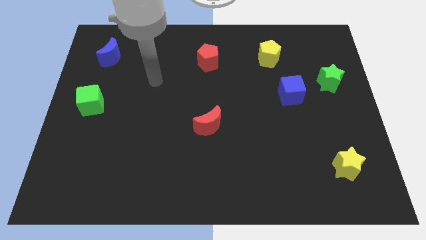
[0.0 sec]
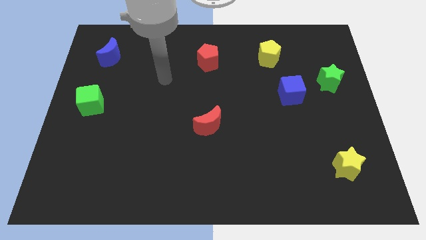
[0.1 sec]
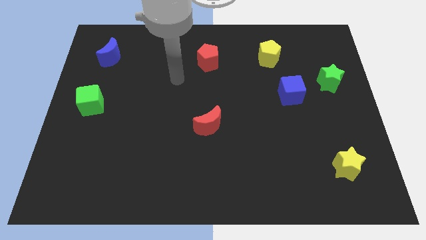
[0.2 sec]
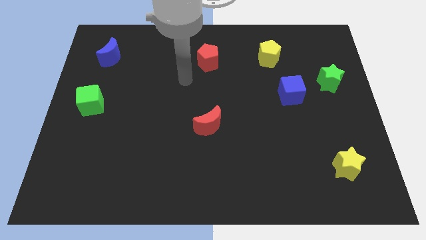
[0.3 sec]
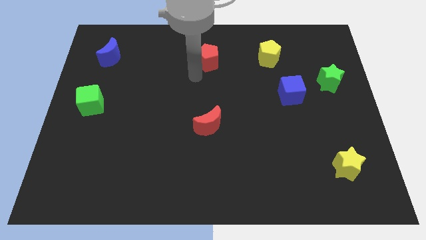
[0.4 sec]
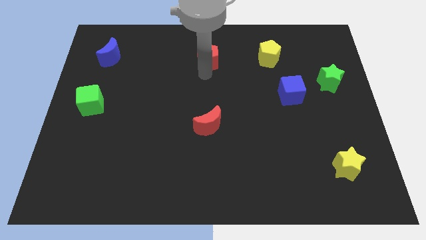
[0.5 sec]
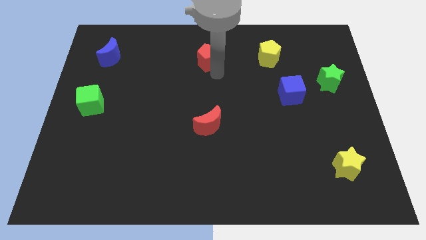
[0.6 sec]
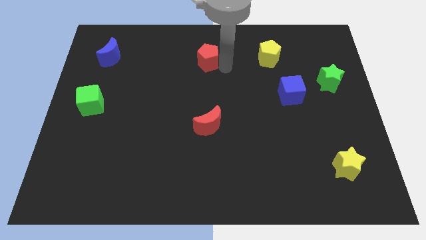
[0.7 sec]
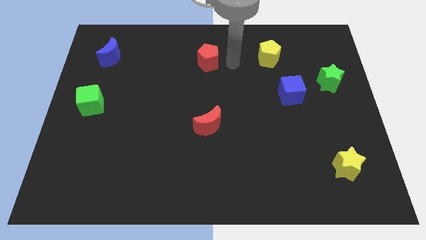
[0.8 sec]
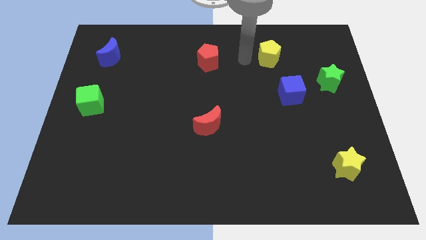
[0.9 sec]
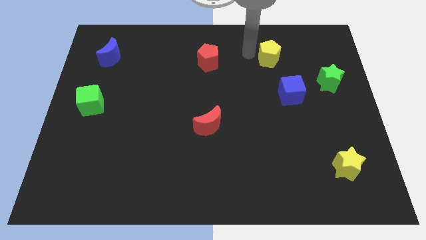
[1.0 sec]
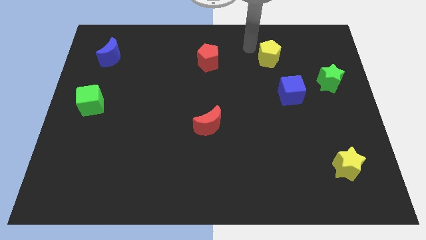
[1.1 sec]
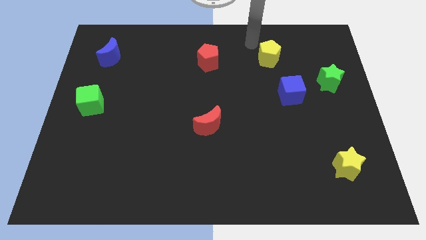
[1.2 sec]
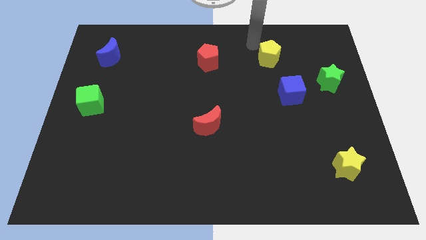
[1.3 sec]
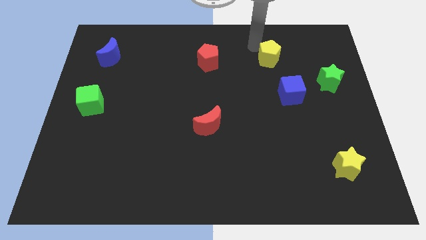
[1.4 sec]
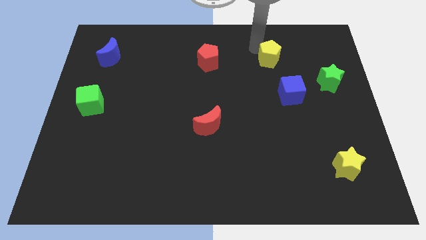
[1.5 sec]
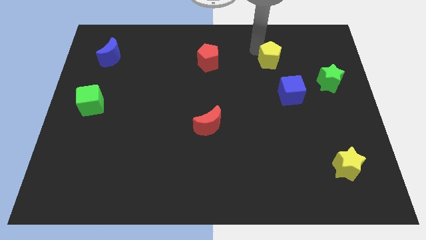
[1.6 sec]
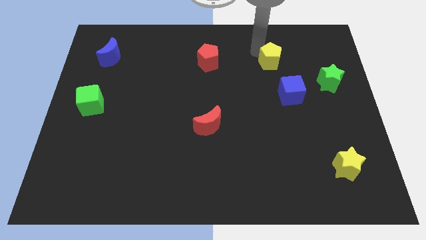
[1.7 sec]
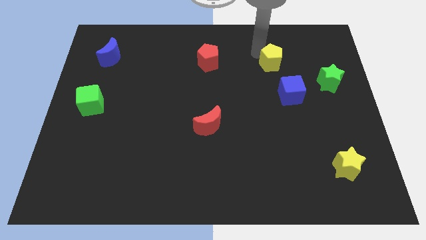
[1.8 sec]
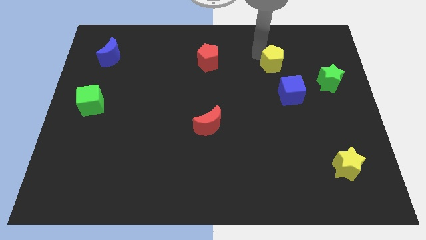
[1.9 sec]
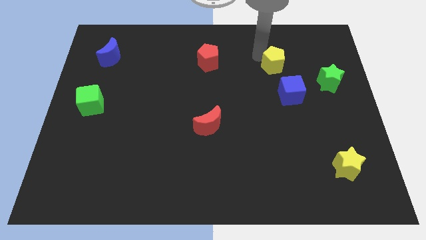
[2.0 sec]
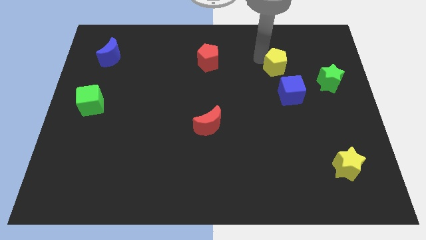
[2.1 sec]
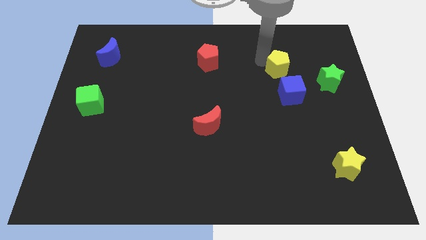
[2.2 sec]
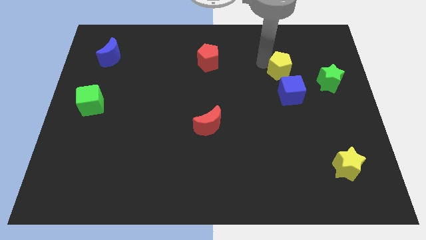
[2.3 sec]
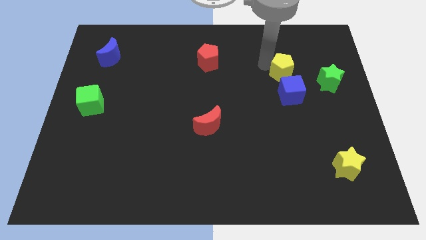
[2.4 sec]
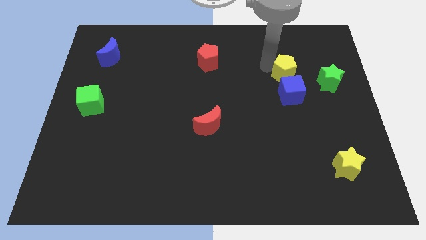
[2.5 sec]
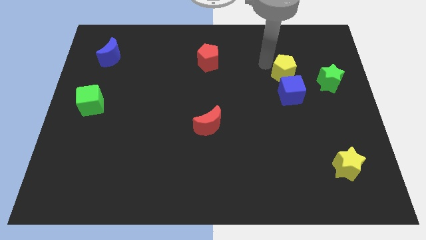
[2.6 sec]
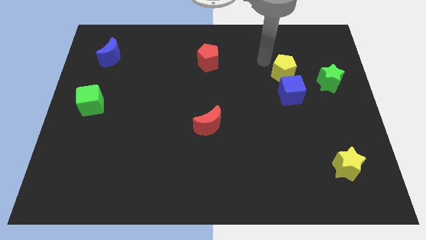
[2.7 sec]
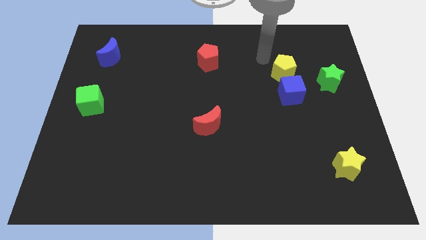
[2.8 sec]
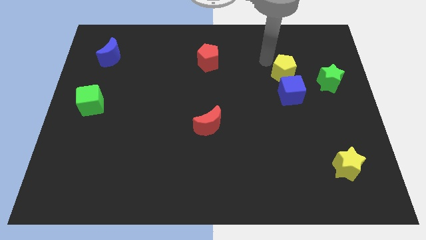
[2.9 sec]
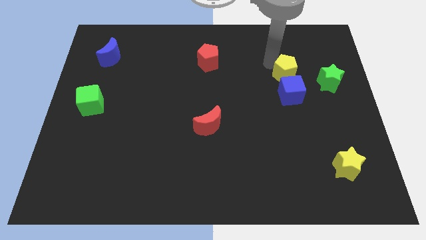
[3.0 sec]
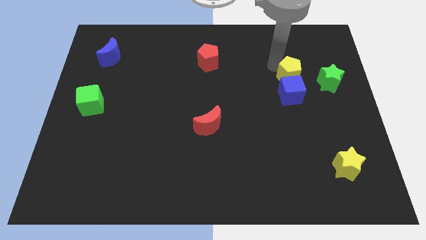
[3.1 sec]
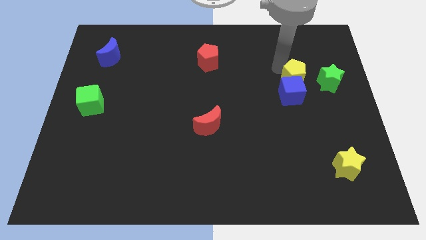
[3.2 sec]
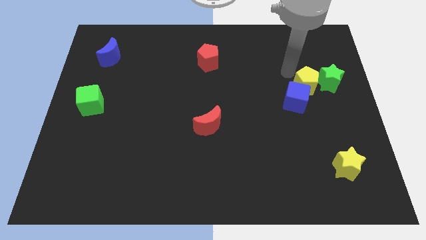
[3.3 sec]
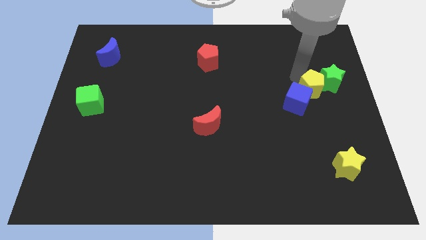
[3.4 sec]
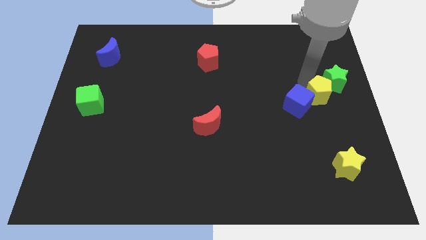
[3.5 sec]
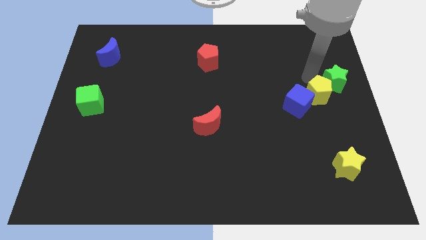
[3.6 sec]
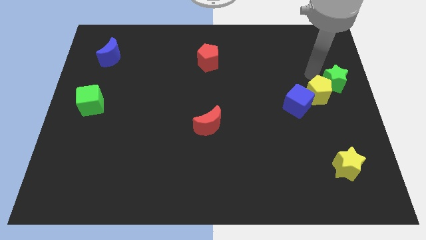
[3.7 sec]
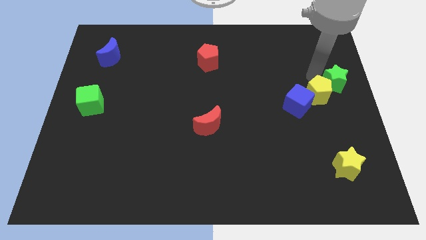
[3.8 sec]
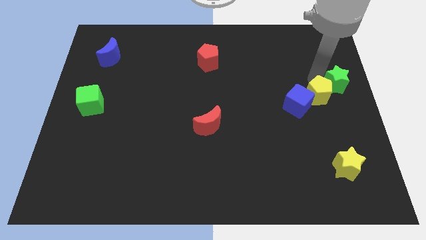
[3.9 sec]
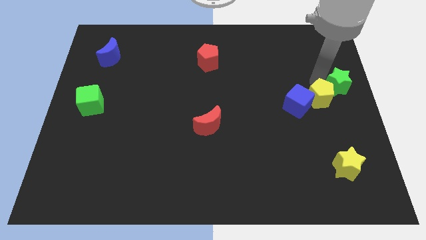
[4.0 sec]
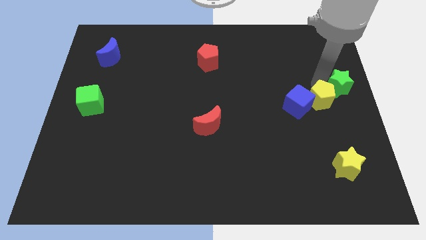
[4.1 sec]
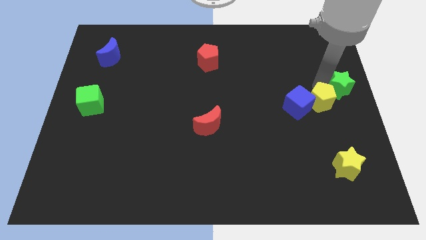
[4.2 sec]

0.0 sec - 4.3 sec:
slide the yellow pentagon to the bottom right of the blue cube

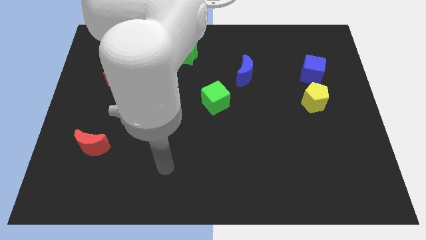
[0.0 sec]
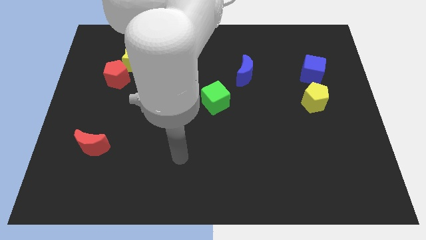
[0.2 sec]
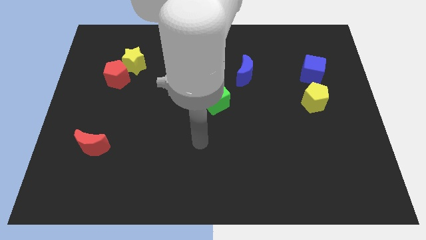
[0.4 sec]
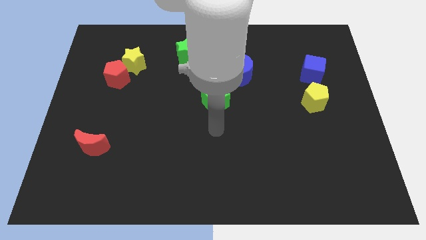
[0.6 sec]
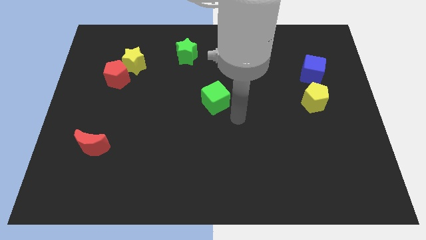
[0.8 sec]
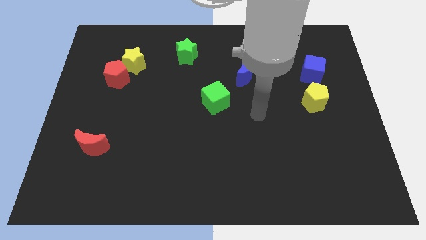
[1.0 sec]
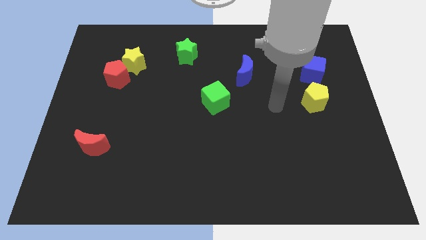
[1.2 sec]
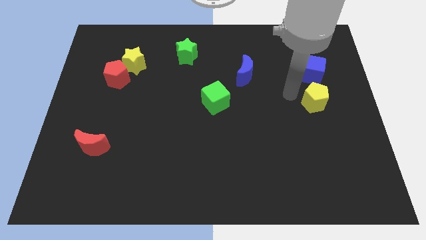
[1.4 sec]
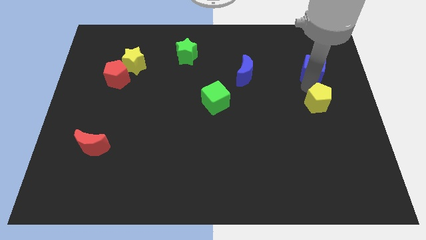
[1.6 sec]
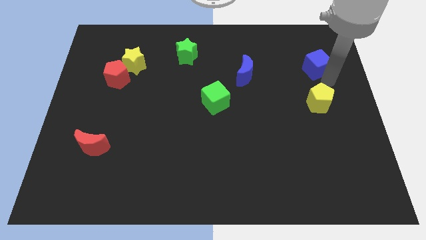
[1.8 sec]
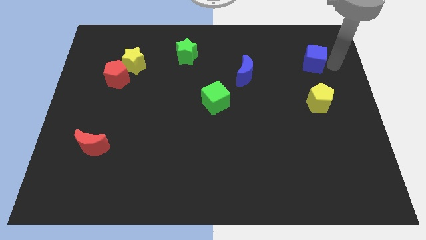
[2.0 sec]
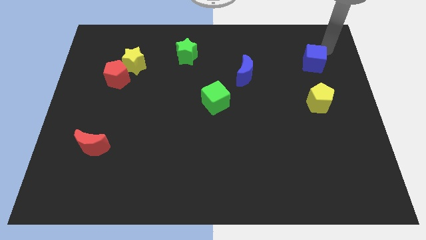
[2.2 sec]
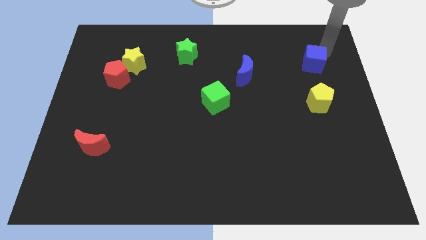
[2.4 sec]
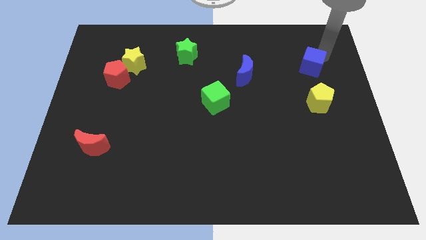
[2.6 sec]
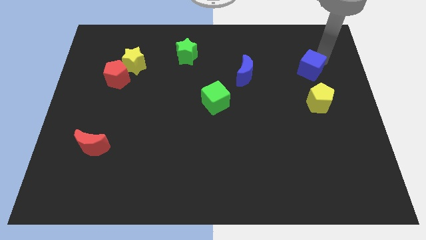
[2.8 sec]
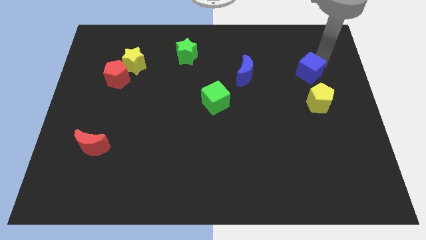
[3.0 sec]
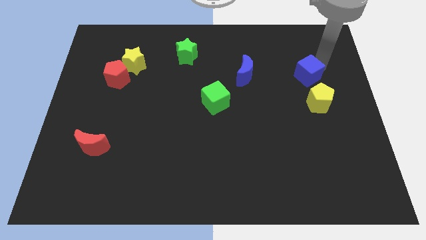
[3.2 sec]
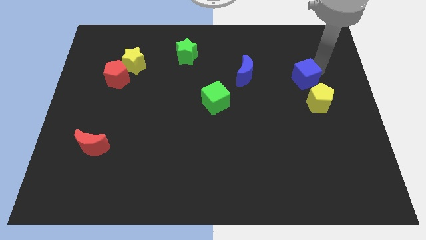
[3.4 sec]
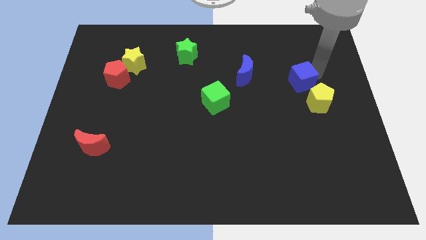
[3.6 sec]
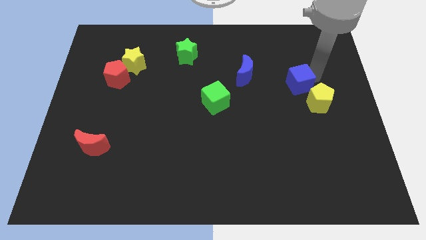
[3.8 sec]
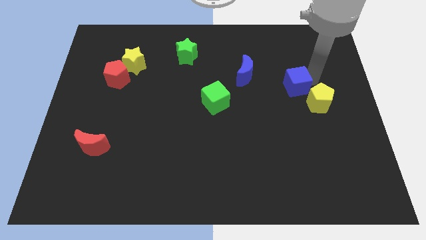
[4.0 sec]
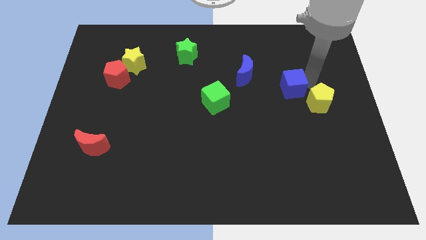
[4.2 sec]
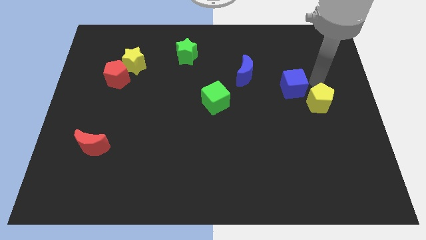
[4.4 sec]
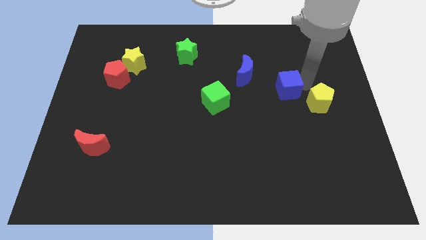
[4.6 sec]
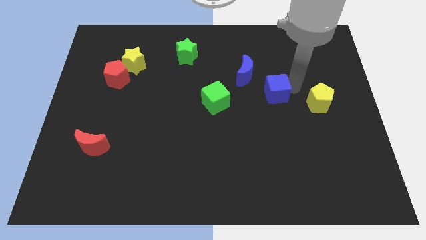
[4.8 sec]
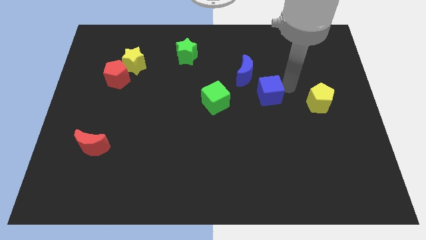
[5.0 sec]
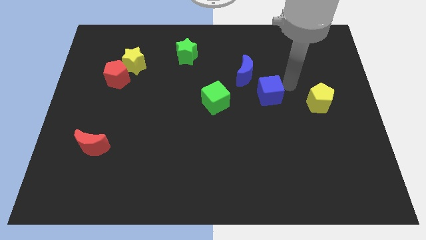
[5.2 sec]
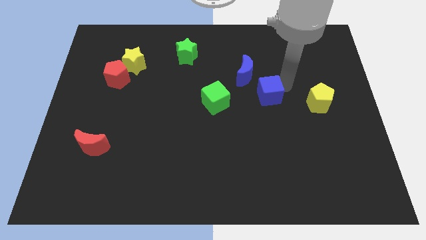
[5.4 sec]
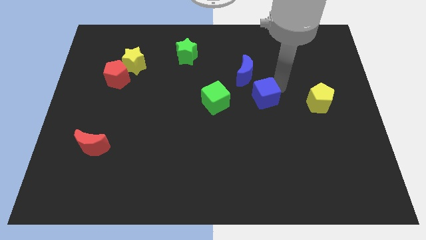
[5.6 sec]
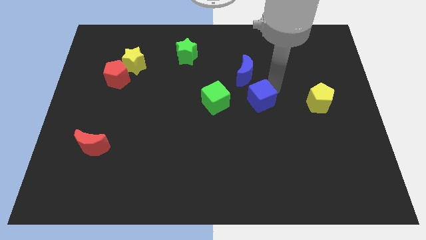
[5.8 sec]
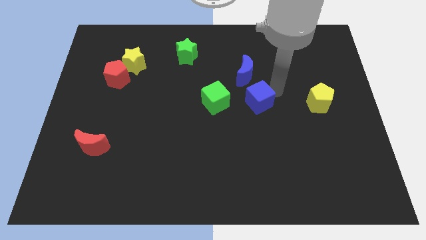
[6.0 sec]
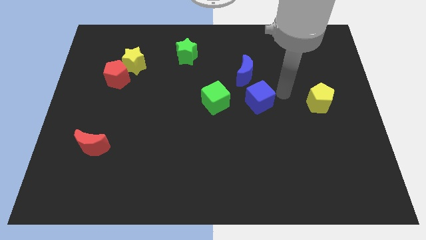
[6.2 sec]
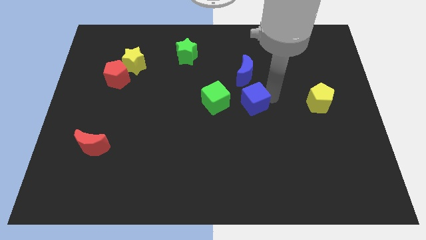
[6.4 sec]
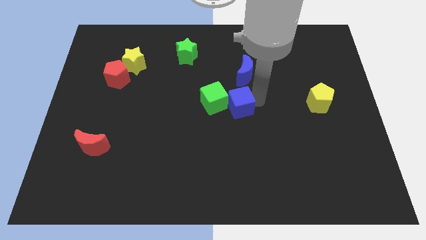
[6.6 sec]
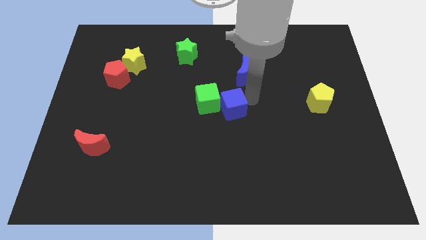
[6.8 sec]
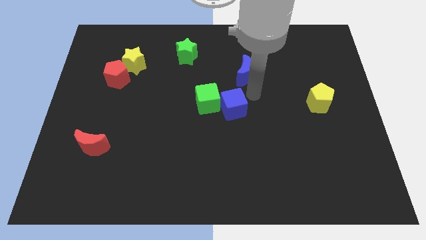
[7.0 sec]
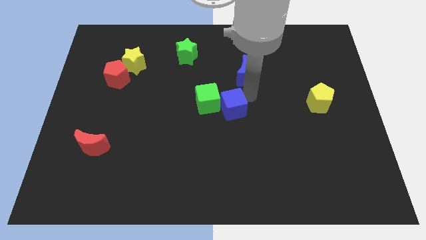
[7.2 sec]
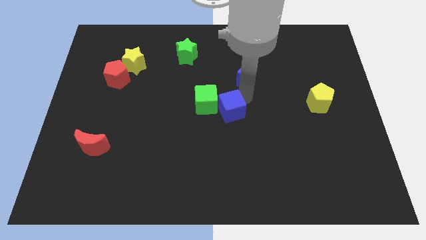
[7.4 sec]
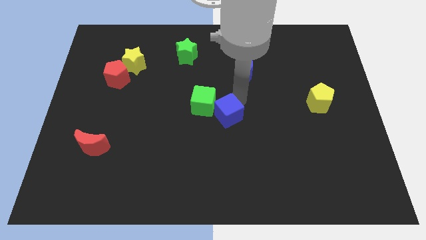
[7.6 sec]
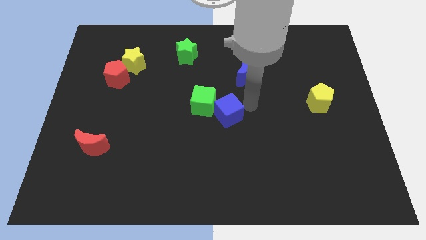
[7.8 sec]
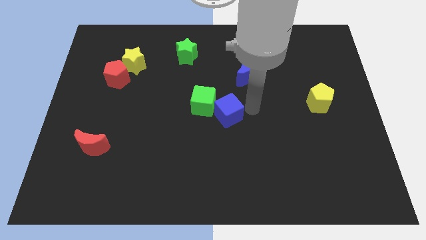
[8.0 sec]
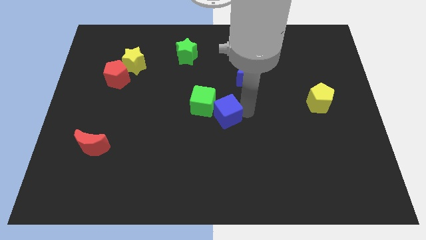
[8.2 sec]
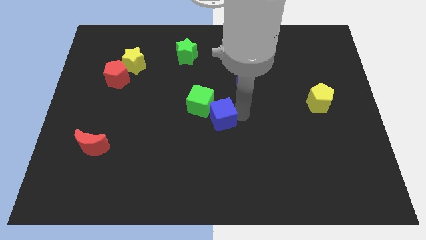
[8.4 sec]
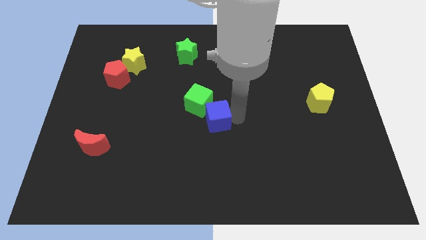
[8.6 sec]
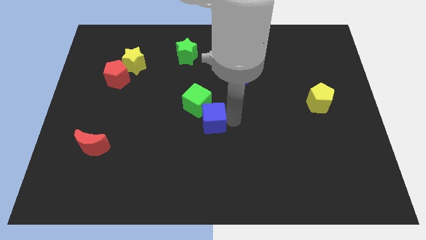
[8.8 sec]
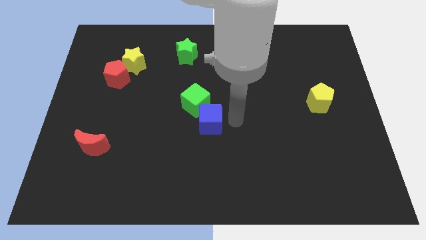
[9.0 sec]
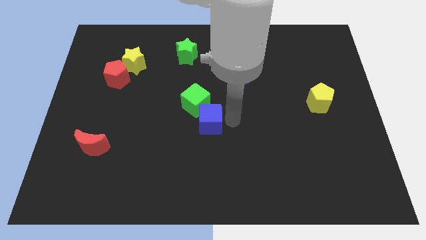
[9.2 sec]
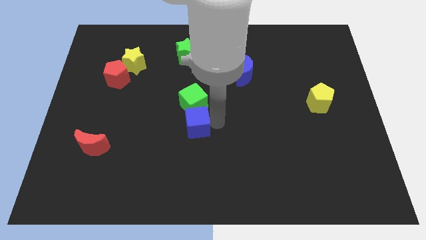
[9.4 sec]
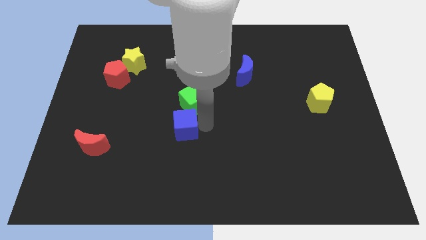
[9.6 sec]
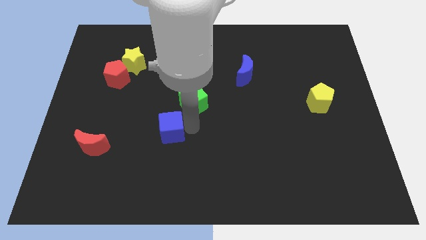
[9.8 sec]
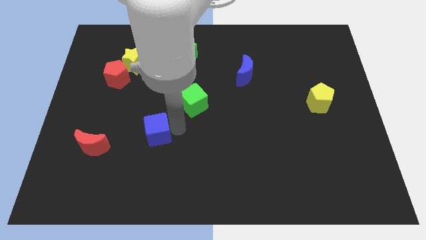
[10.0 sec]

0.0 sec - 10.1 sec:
slide the blue cube to the right of the red moon
